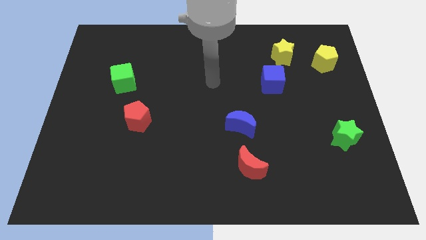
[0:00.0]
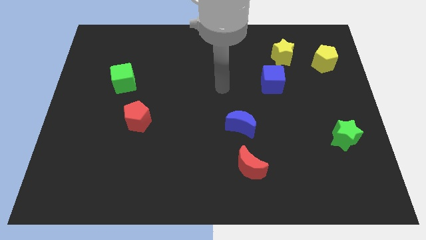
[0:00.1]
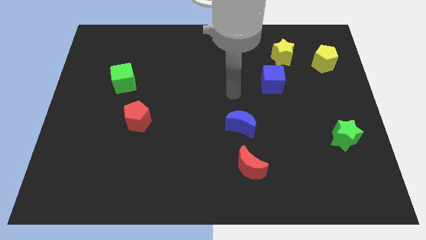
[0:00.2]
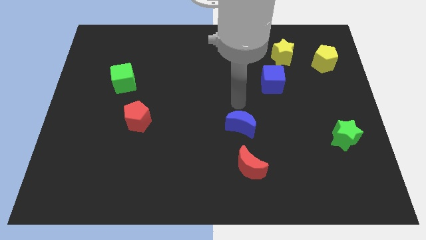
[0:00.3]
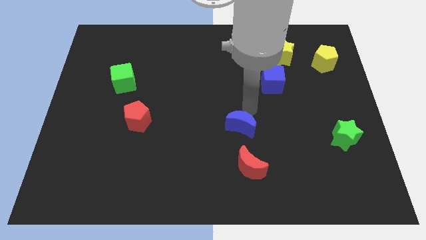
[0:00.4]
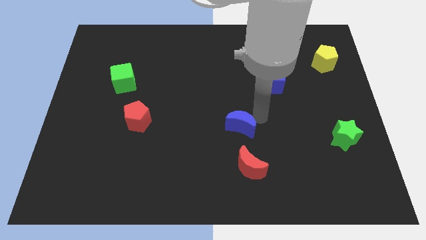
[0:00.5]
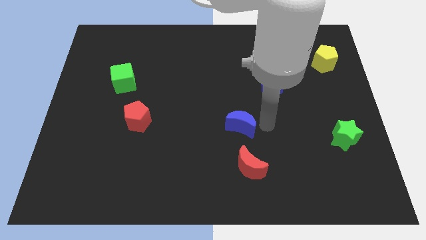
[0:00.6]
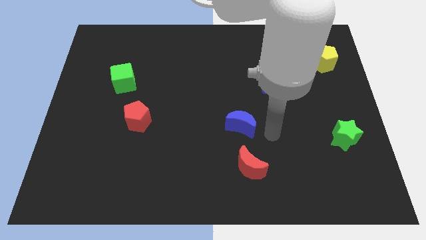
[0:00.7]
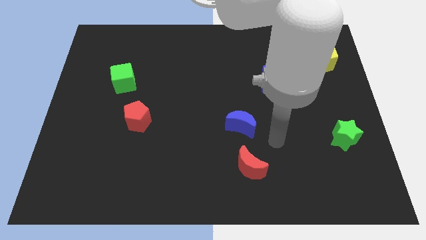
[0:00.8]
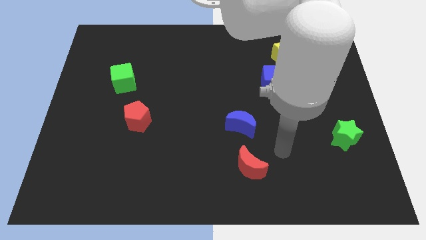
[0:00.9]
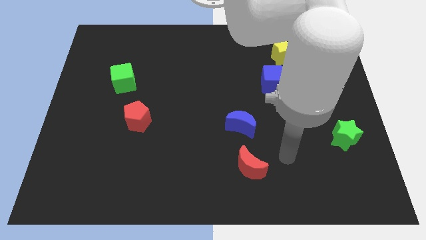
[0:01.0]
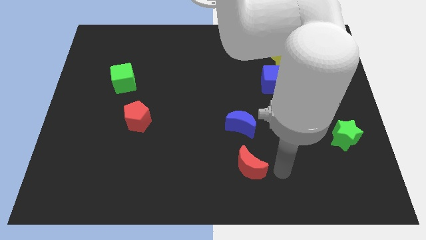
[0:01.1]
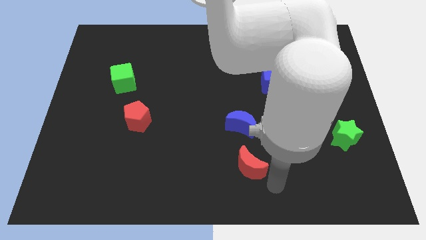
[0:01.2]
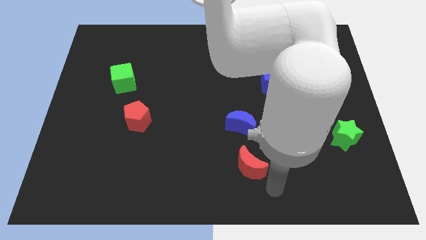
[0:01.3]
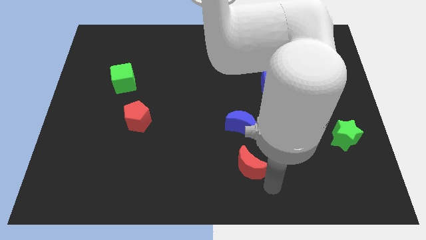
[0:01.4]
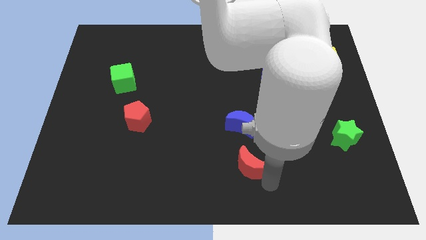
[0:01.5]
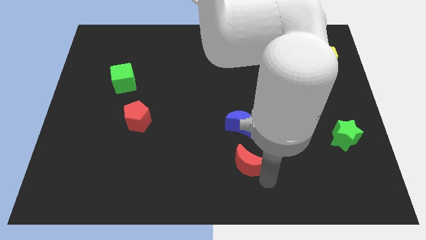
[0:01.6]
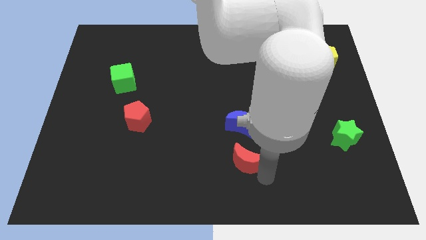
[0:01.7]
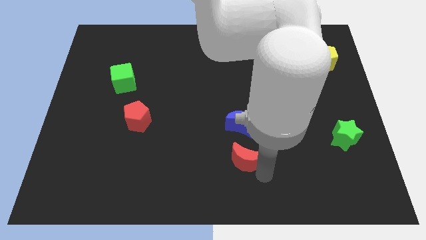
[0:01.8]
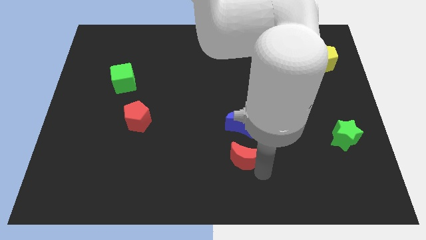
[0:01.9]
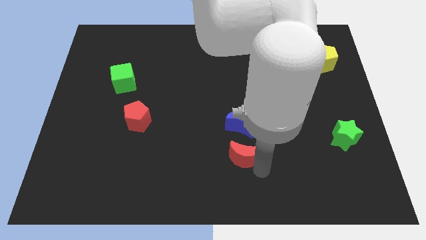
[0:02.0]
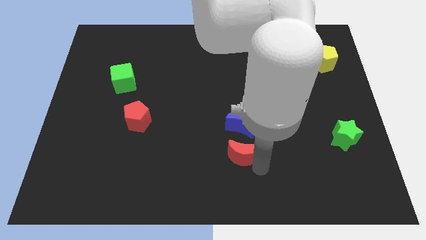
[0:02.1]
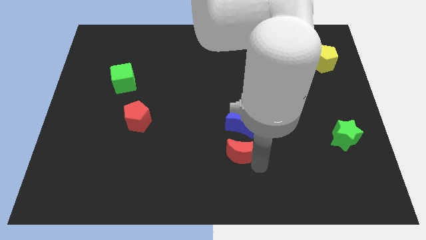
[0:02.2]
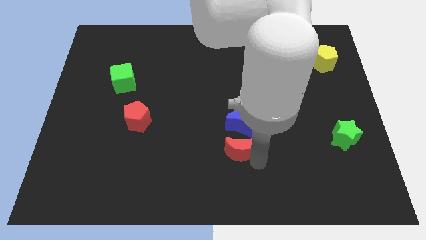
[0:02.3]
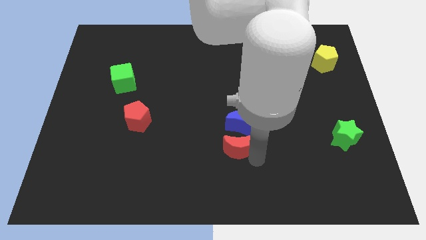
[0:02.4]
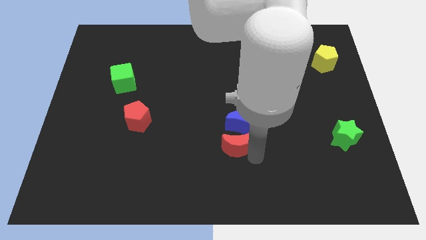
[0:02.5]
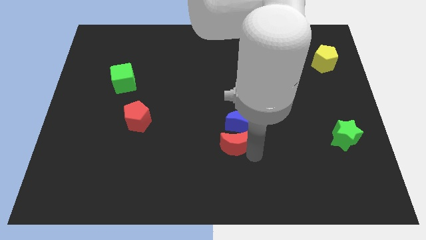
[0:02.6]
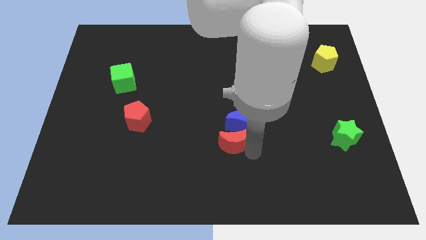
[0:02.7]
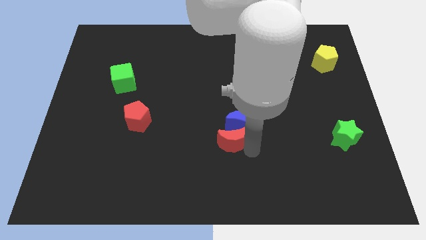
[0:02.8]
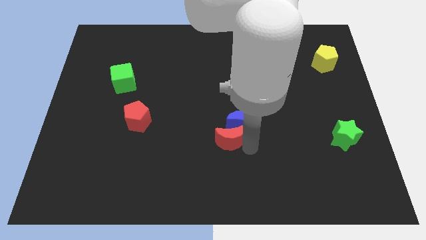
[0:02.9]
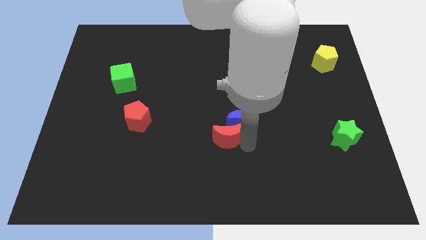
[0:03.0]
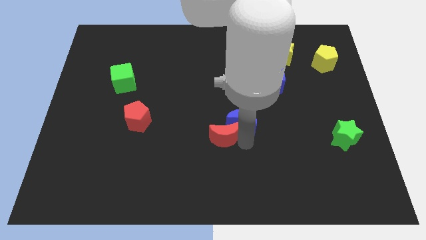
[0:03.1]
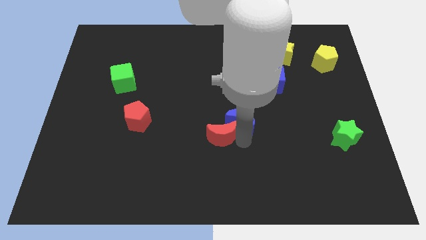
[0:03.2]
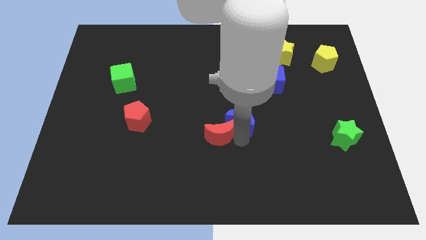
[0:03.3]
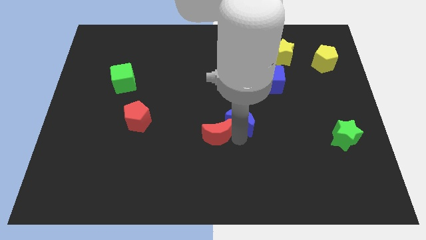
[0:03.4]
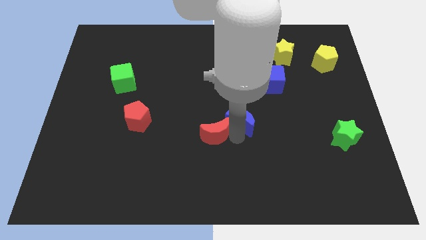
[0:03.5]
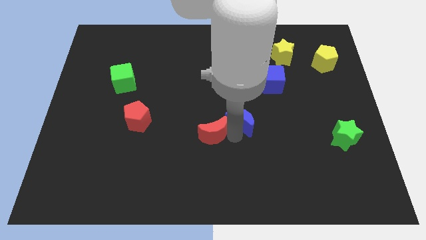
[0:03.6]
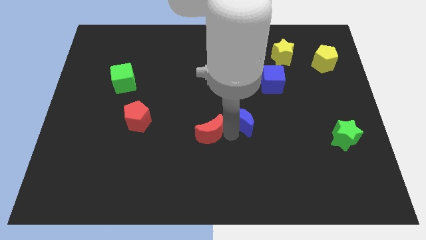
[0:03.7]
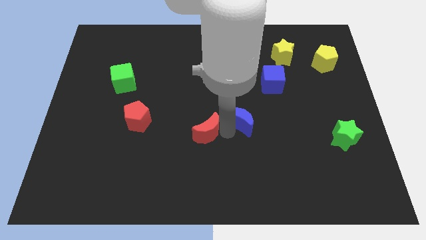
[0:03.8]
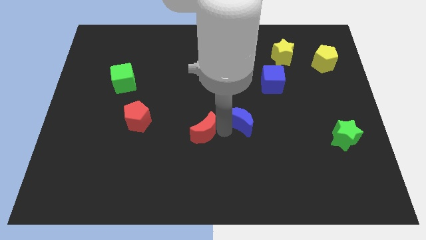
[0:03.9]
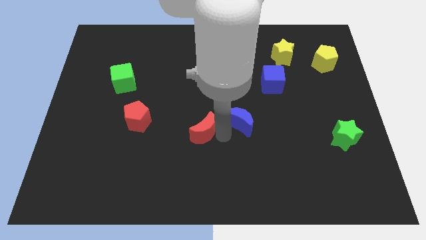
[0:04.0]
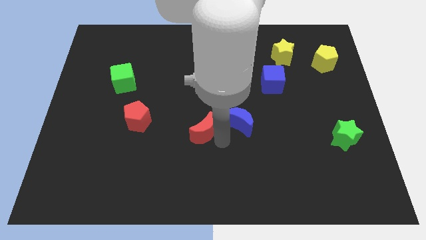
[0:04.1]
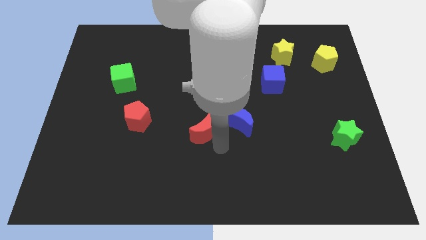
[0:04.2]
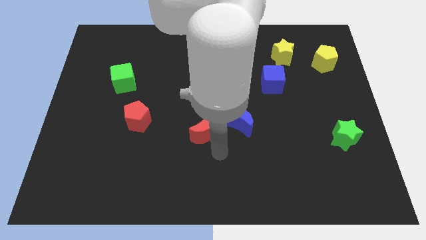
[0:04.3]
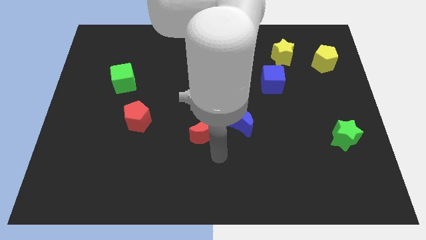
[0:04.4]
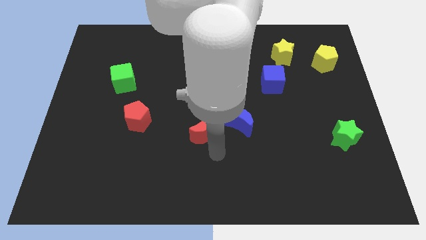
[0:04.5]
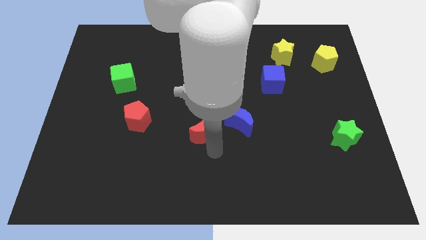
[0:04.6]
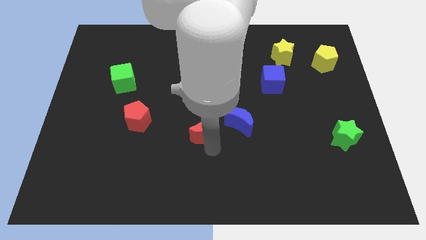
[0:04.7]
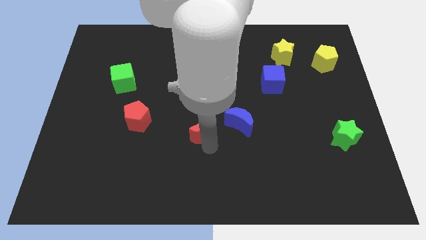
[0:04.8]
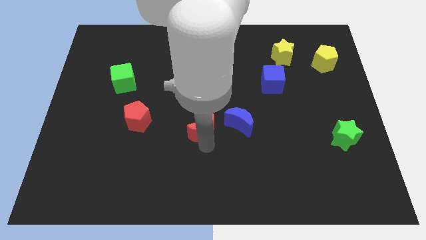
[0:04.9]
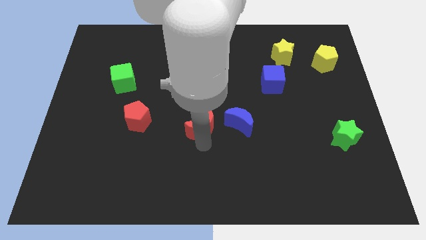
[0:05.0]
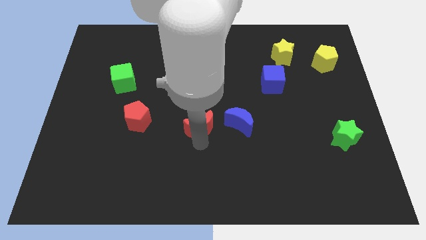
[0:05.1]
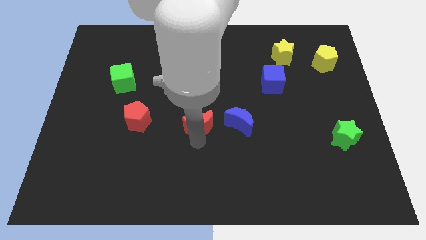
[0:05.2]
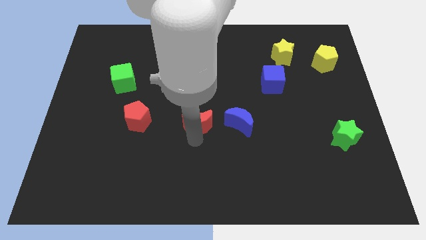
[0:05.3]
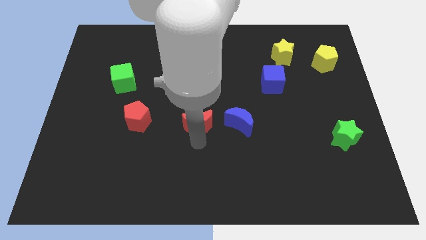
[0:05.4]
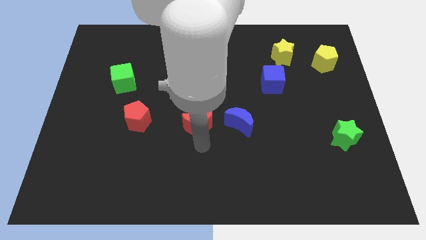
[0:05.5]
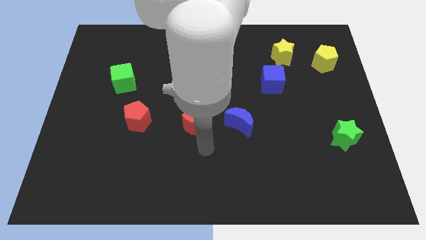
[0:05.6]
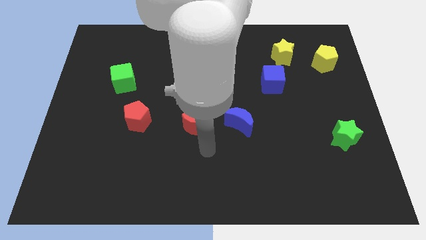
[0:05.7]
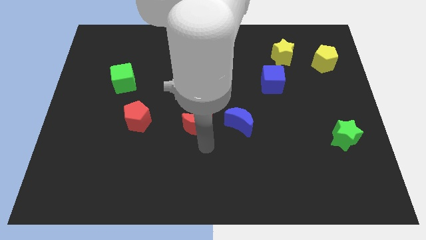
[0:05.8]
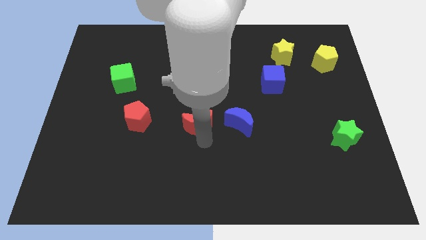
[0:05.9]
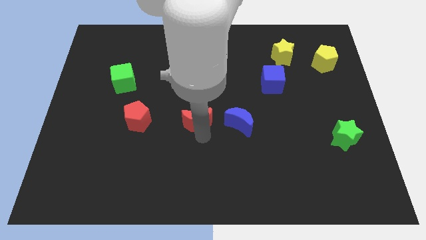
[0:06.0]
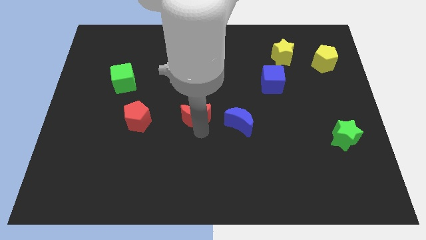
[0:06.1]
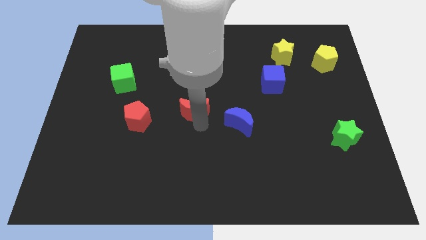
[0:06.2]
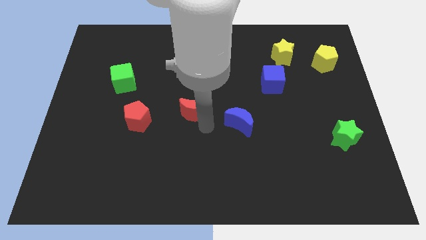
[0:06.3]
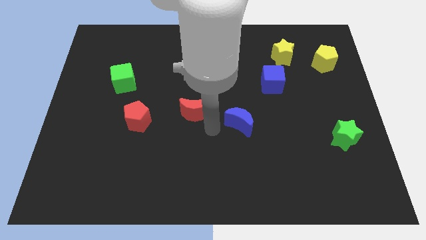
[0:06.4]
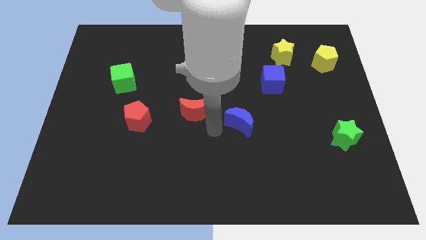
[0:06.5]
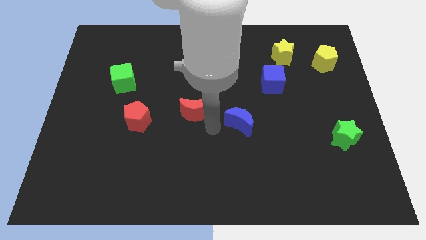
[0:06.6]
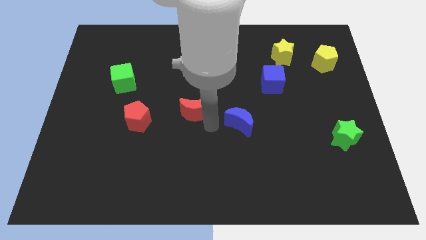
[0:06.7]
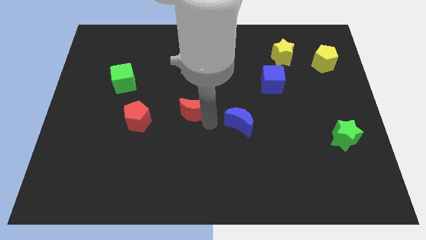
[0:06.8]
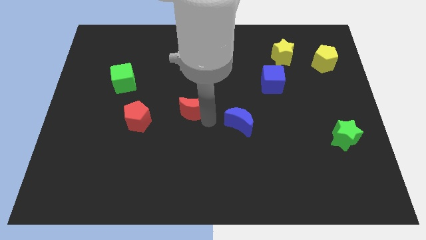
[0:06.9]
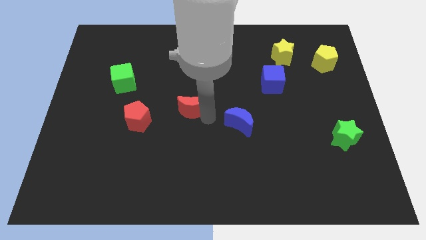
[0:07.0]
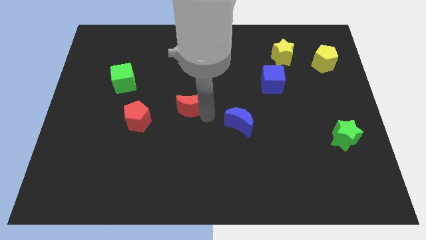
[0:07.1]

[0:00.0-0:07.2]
slide the red moon up and left diagonally

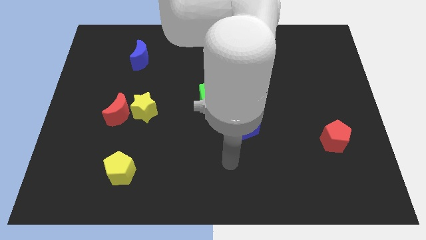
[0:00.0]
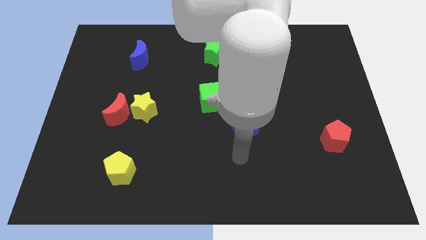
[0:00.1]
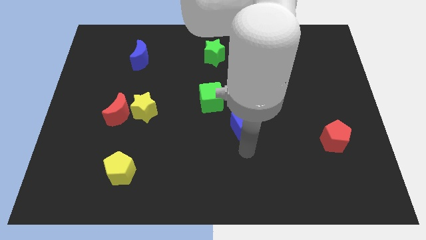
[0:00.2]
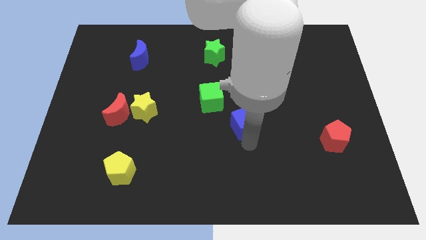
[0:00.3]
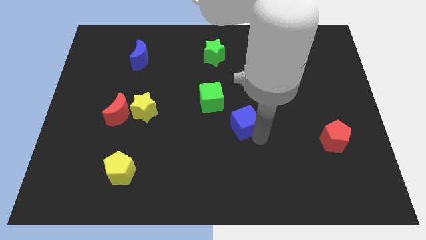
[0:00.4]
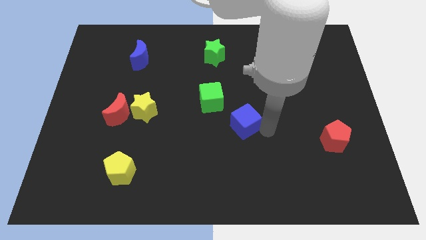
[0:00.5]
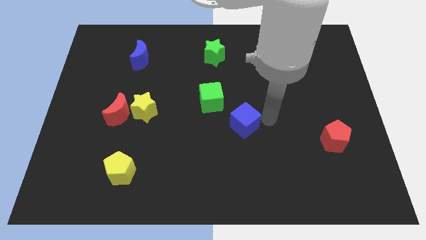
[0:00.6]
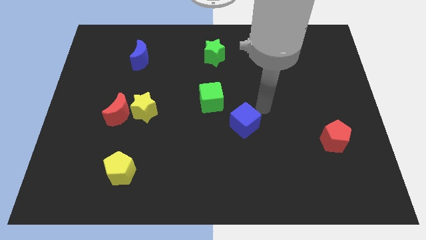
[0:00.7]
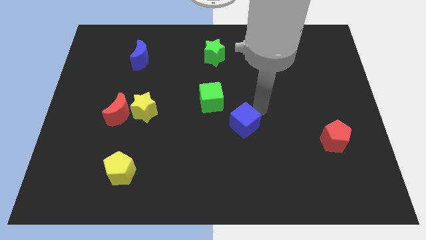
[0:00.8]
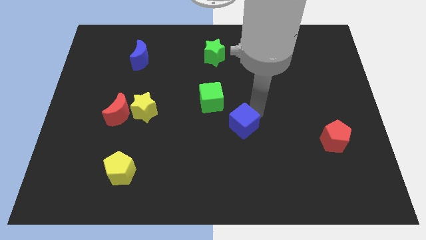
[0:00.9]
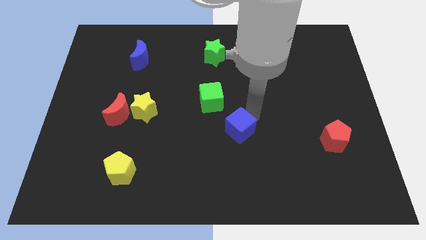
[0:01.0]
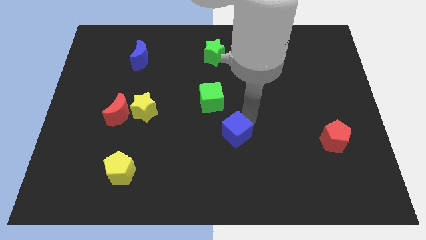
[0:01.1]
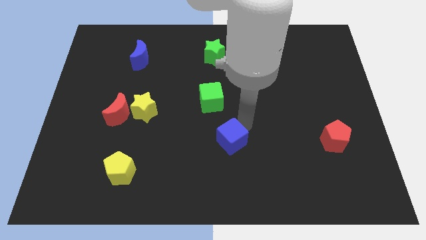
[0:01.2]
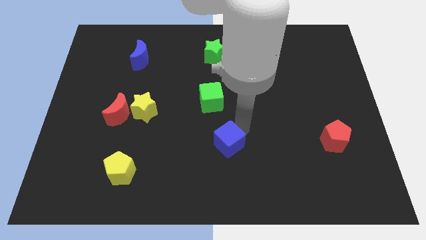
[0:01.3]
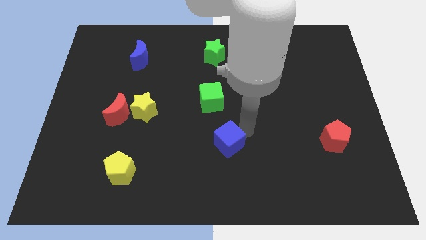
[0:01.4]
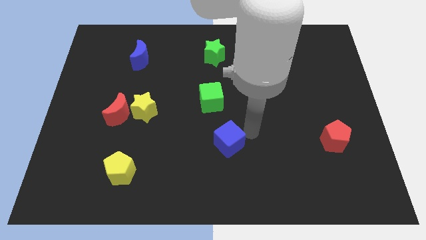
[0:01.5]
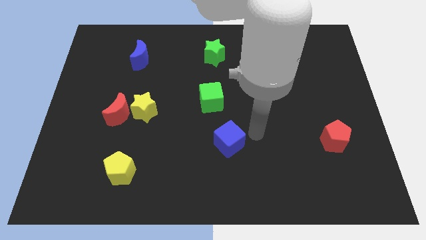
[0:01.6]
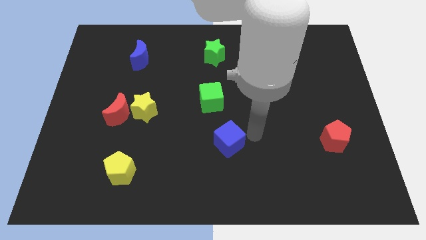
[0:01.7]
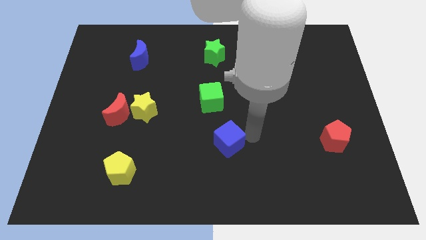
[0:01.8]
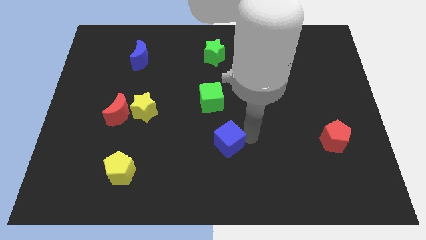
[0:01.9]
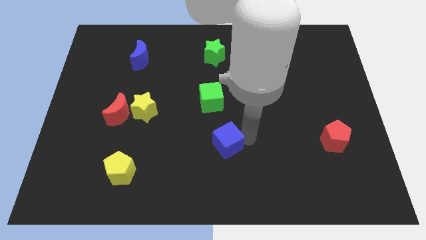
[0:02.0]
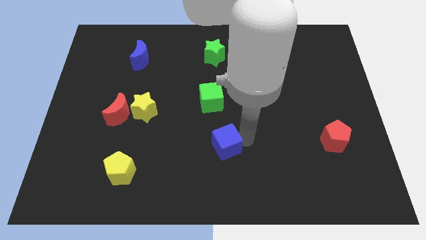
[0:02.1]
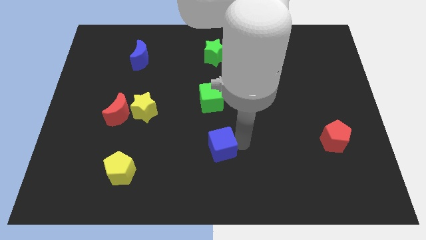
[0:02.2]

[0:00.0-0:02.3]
move the blue cube somewhat downwards and to the left diagonally
